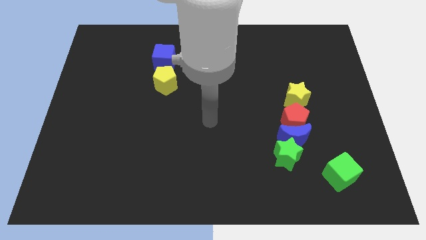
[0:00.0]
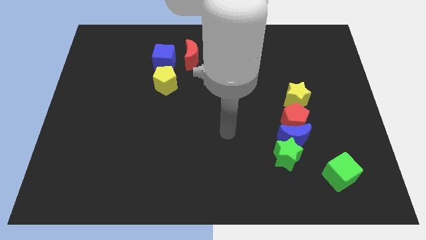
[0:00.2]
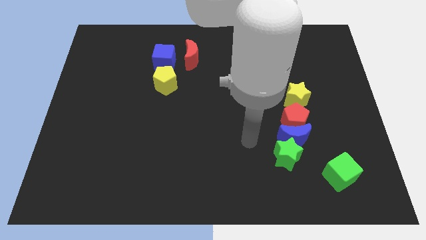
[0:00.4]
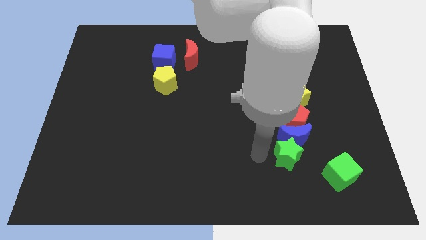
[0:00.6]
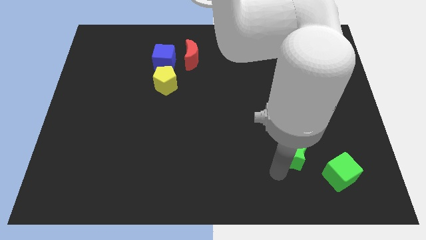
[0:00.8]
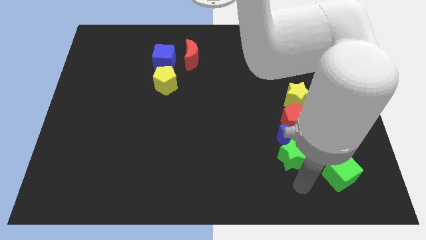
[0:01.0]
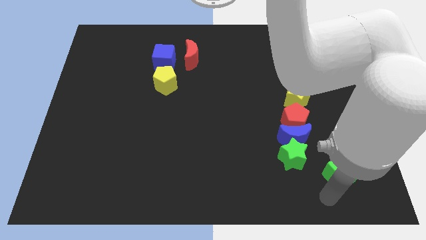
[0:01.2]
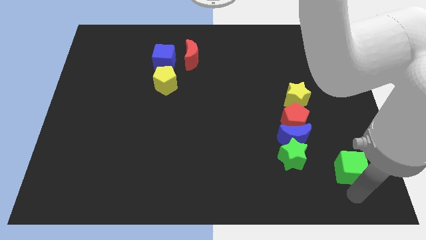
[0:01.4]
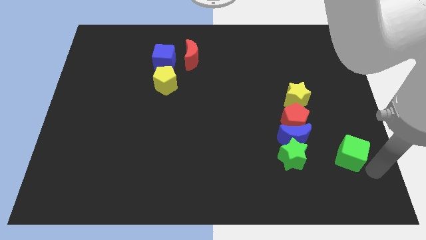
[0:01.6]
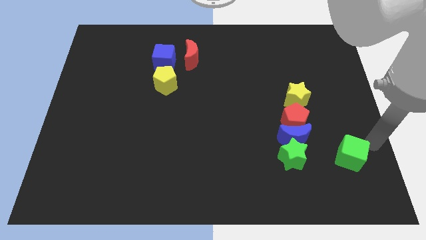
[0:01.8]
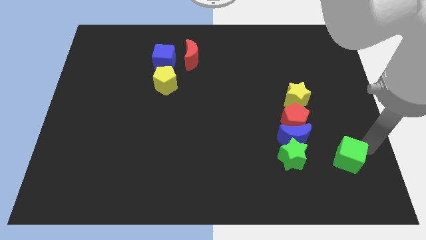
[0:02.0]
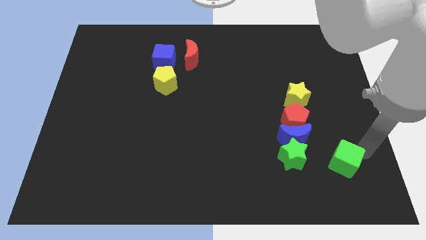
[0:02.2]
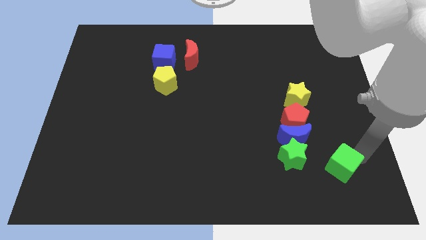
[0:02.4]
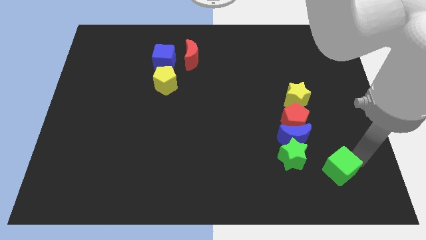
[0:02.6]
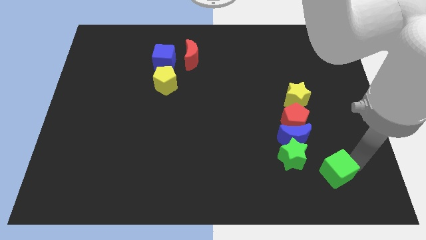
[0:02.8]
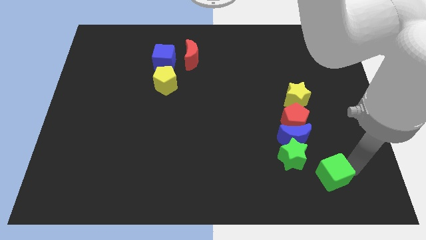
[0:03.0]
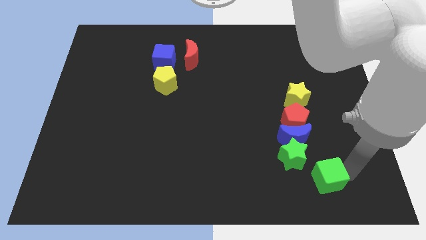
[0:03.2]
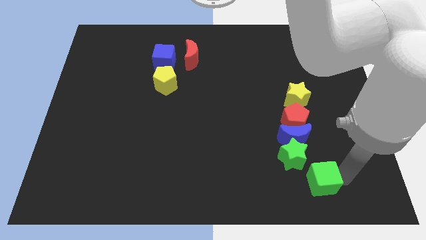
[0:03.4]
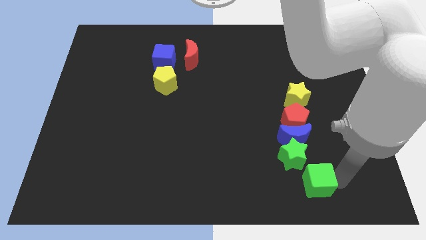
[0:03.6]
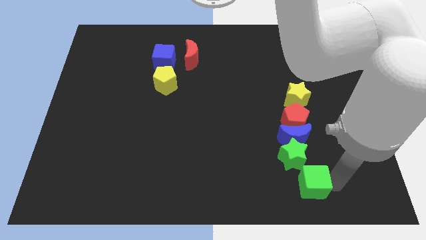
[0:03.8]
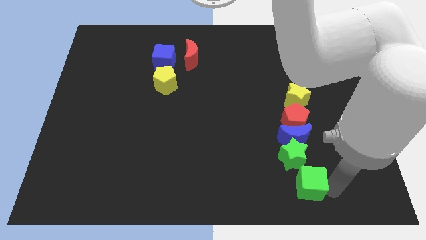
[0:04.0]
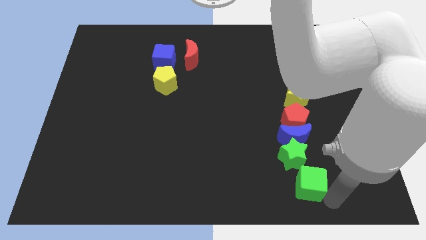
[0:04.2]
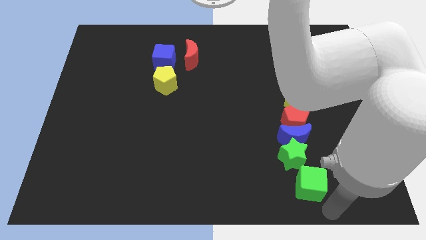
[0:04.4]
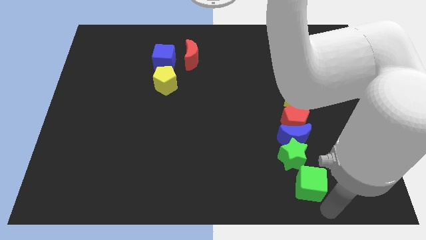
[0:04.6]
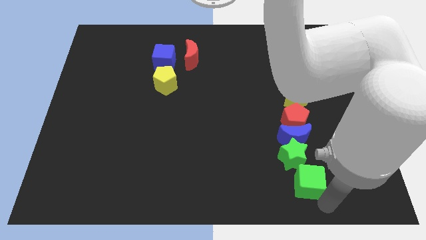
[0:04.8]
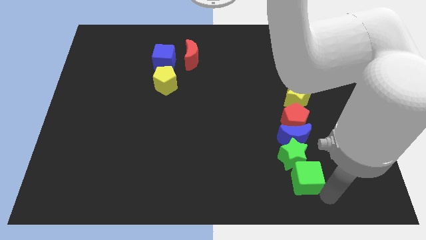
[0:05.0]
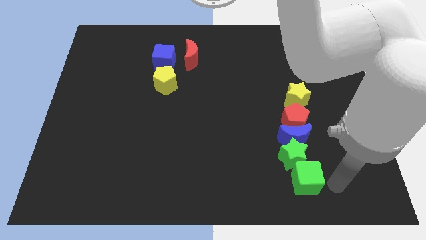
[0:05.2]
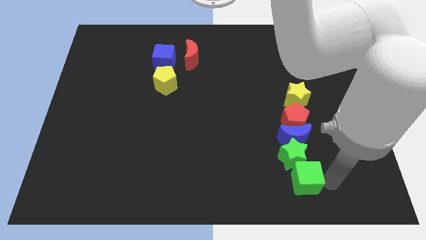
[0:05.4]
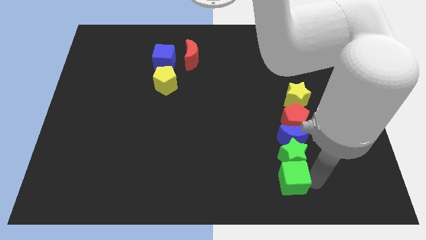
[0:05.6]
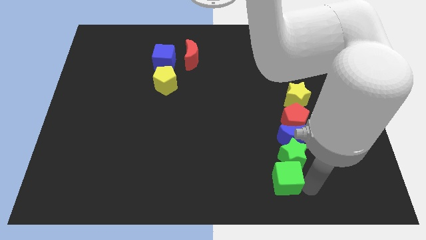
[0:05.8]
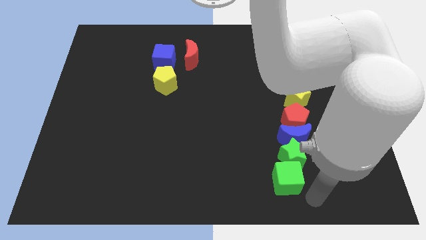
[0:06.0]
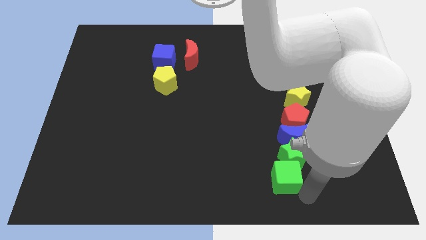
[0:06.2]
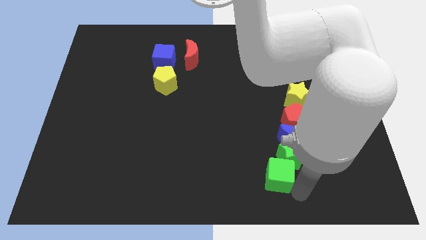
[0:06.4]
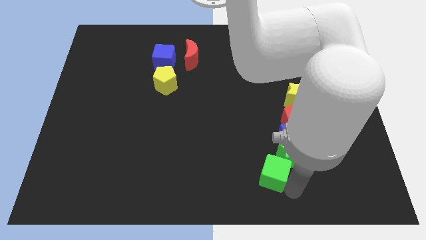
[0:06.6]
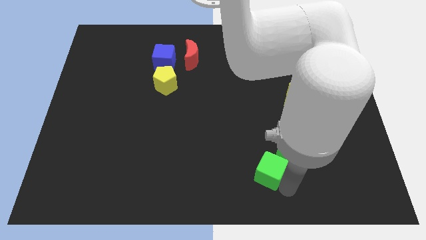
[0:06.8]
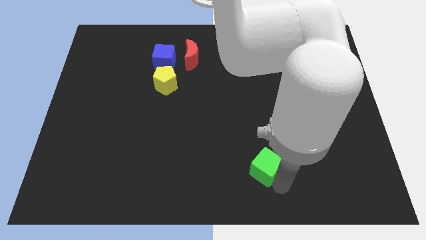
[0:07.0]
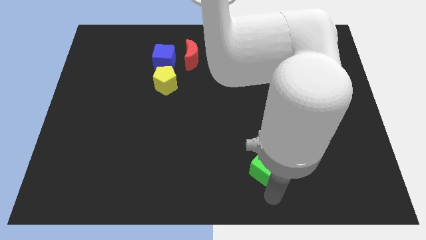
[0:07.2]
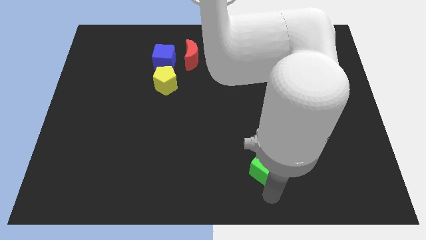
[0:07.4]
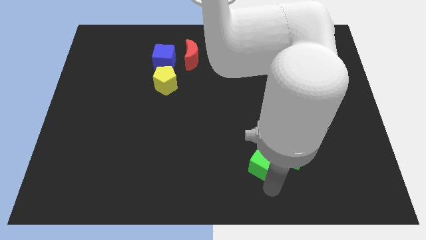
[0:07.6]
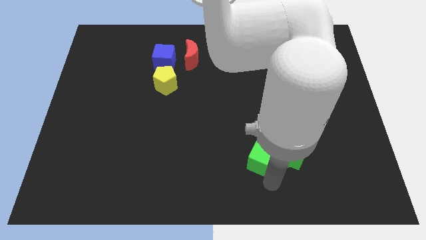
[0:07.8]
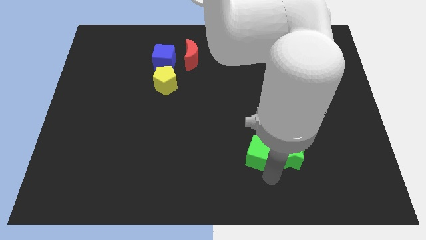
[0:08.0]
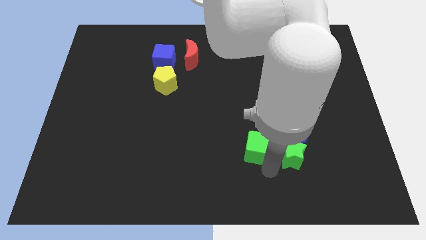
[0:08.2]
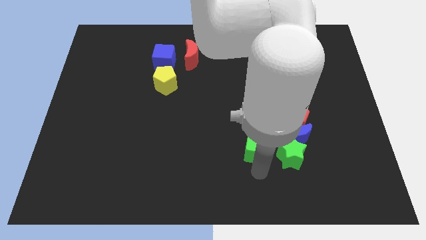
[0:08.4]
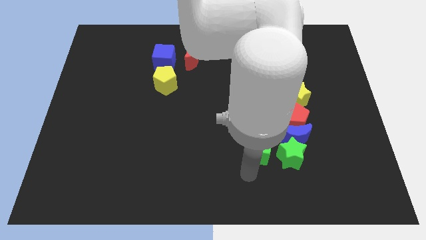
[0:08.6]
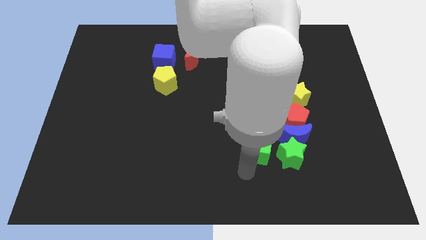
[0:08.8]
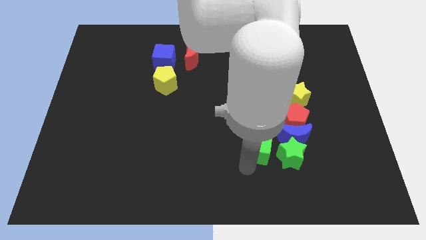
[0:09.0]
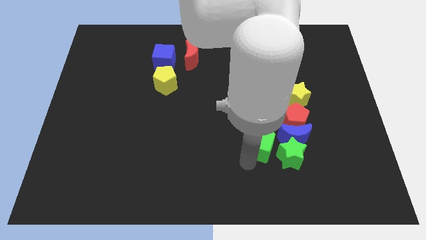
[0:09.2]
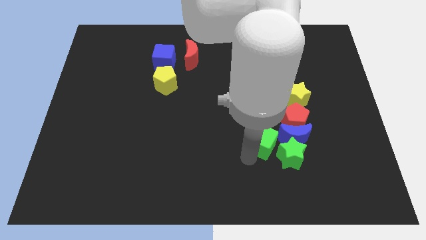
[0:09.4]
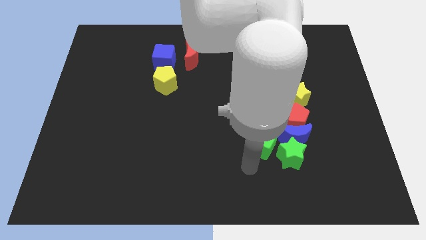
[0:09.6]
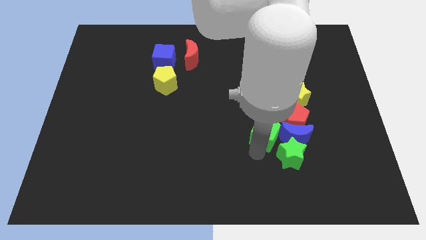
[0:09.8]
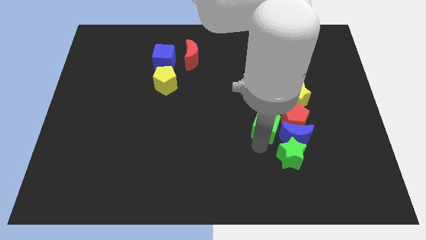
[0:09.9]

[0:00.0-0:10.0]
move the green cube to the bottom left side of the yellow star

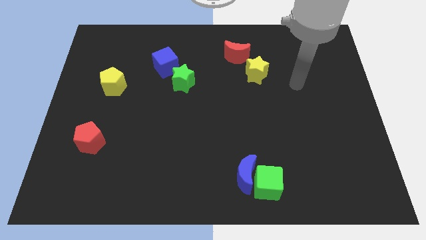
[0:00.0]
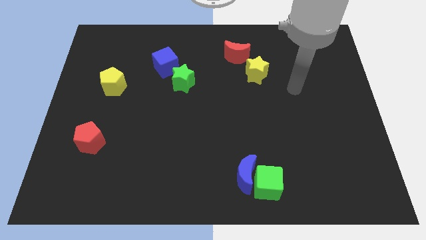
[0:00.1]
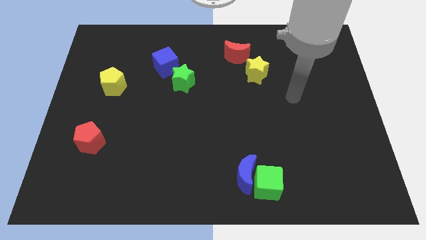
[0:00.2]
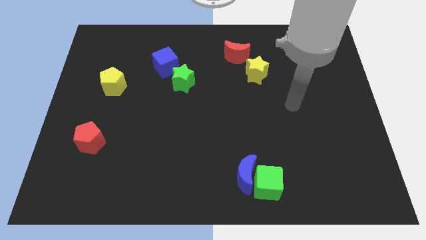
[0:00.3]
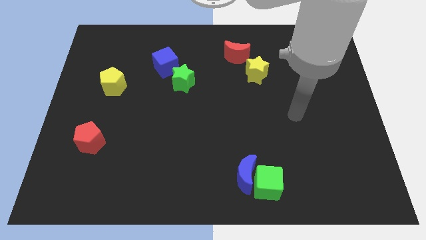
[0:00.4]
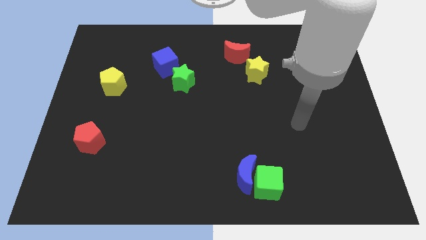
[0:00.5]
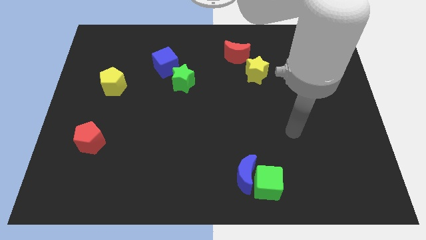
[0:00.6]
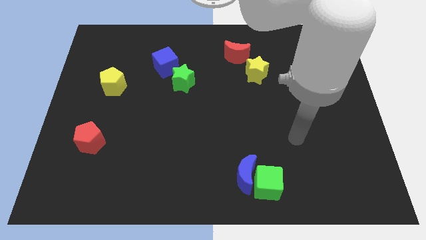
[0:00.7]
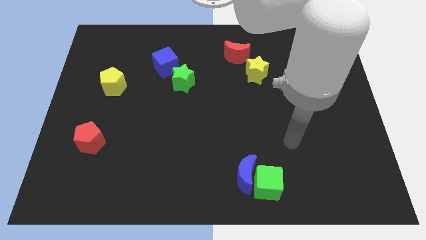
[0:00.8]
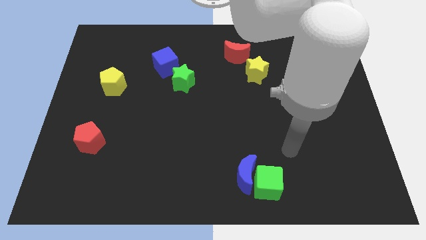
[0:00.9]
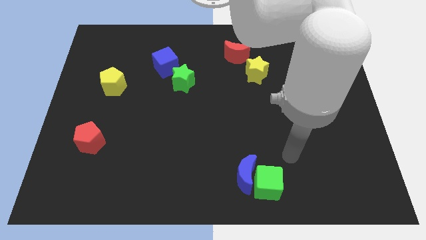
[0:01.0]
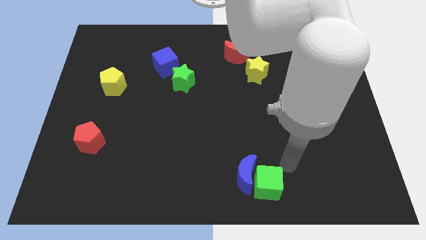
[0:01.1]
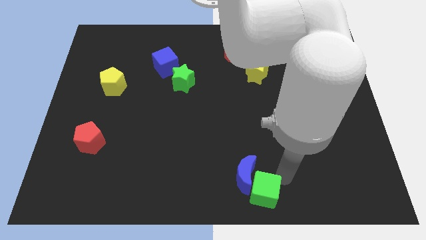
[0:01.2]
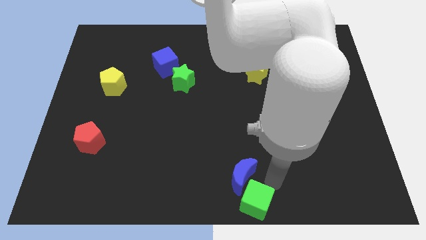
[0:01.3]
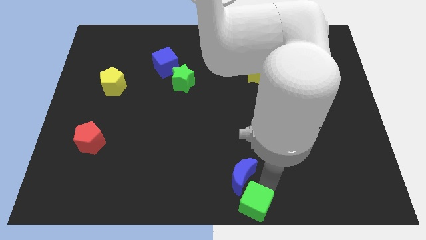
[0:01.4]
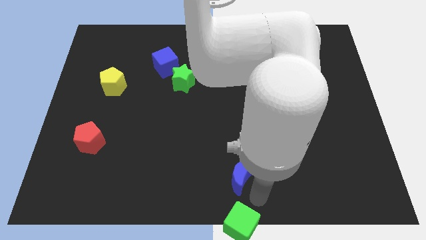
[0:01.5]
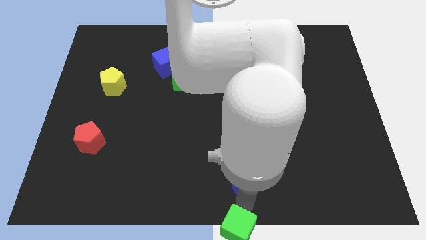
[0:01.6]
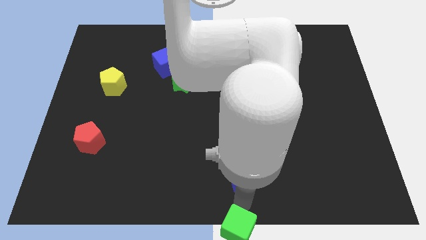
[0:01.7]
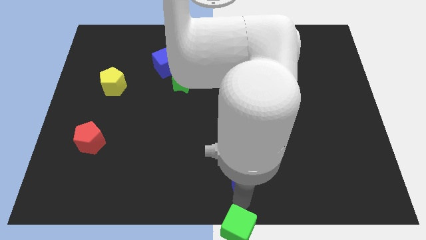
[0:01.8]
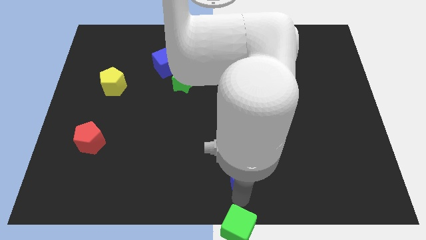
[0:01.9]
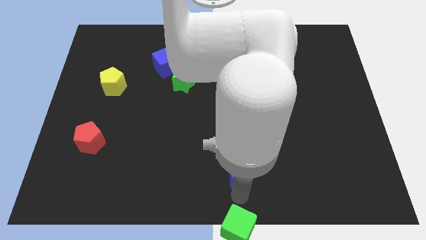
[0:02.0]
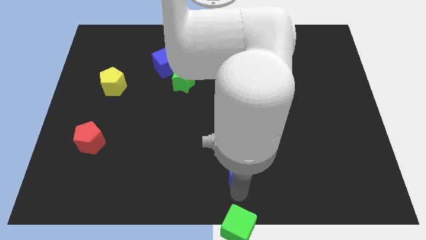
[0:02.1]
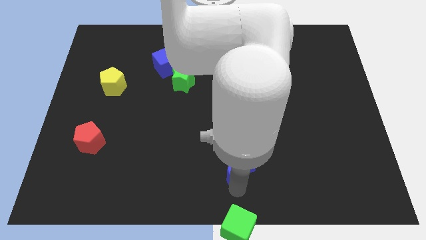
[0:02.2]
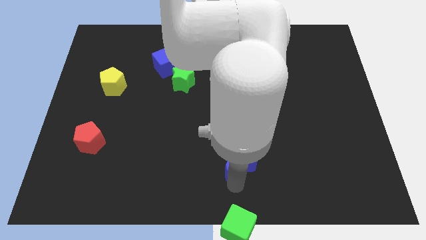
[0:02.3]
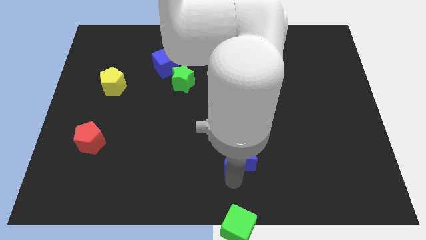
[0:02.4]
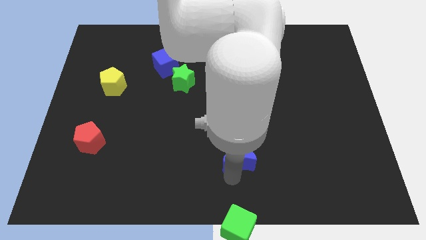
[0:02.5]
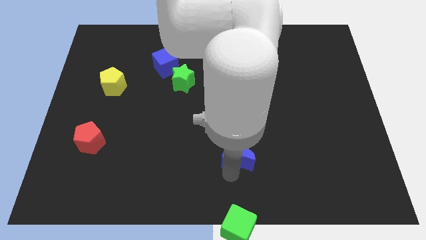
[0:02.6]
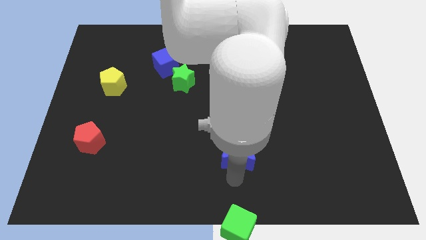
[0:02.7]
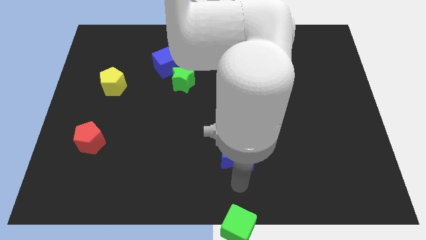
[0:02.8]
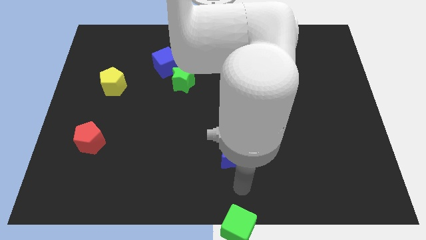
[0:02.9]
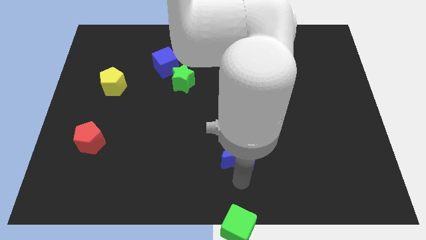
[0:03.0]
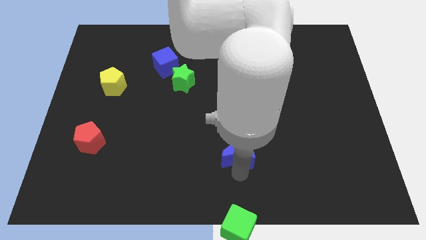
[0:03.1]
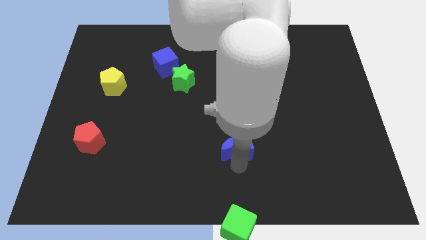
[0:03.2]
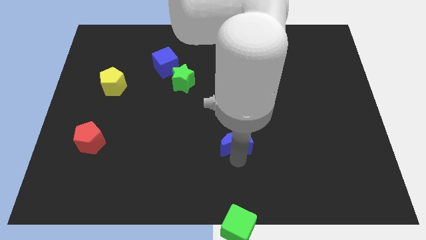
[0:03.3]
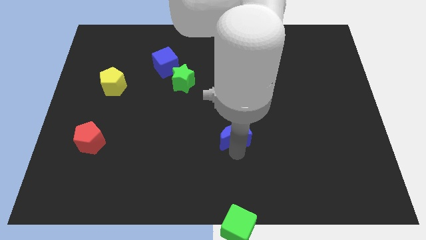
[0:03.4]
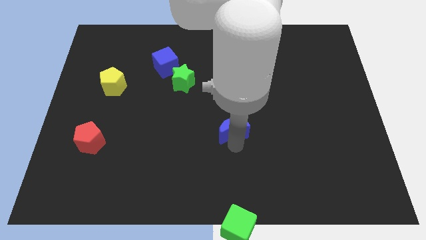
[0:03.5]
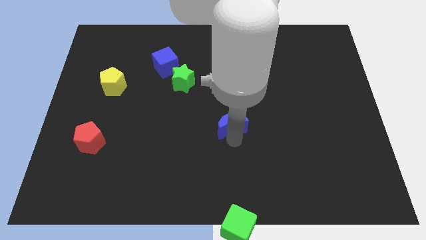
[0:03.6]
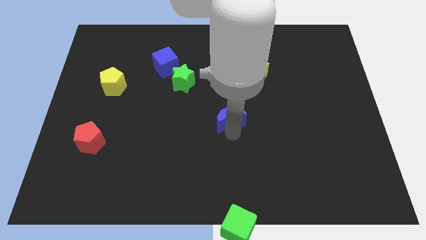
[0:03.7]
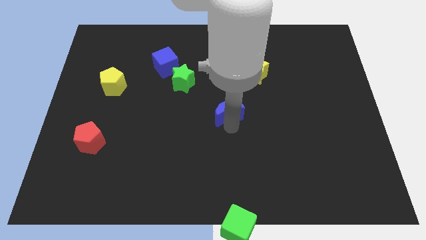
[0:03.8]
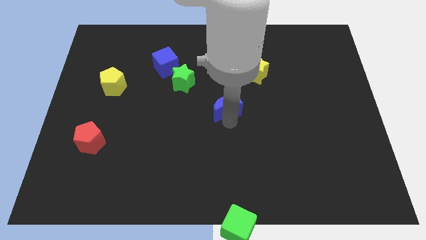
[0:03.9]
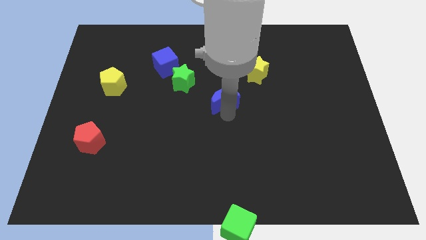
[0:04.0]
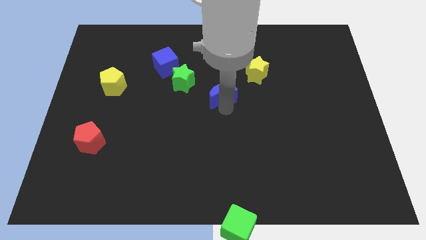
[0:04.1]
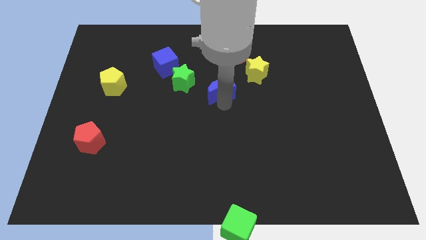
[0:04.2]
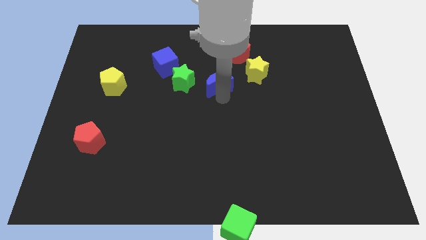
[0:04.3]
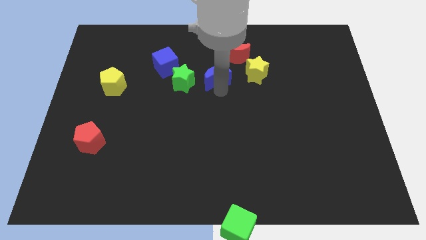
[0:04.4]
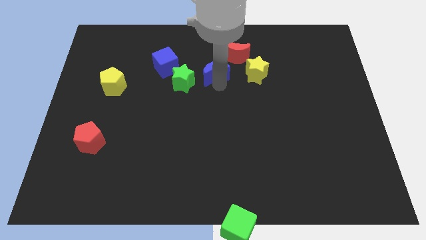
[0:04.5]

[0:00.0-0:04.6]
put the blue moon to the right of the blue cube
